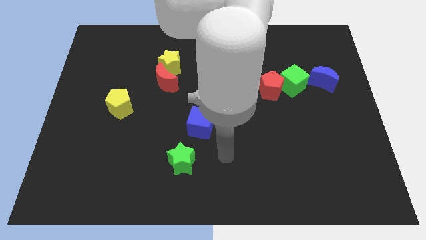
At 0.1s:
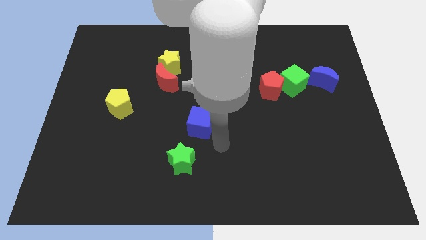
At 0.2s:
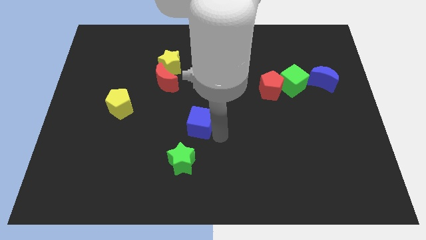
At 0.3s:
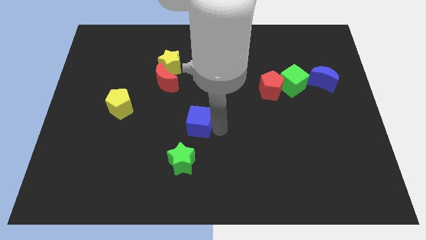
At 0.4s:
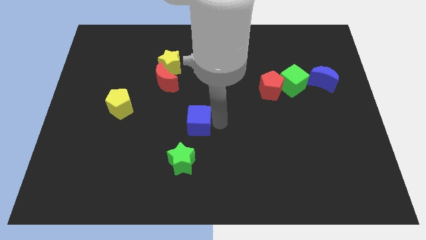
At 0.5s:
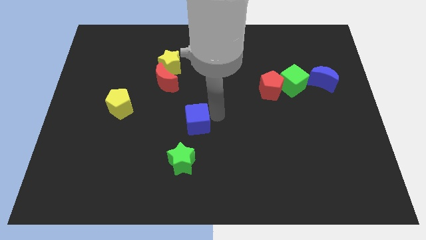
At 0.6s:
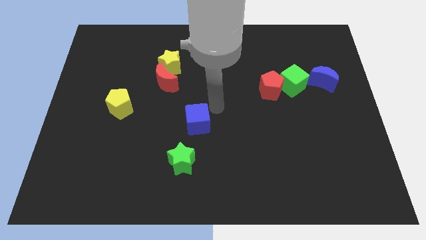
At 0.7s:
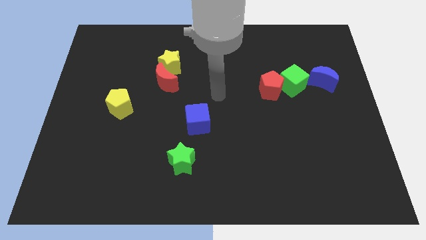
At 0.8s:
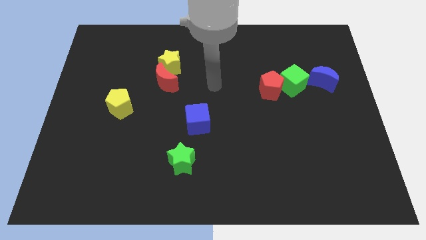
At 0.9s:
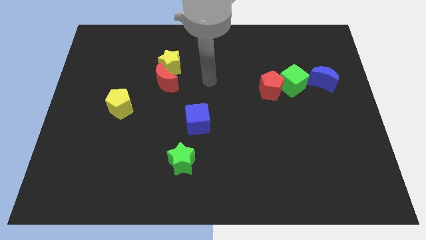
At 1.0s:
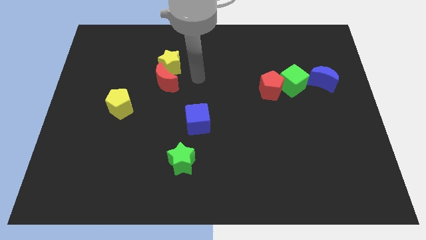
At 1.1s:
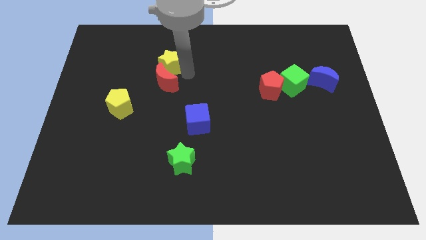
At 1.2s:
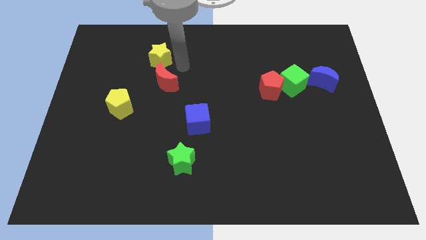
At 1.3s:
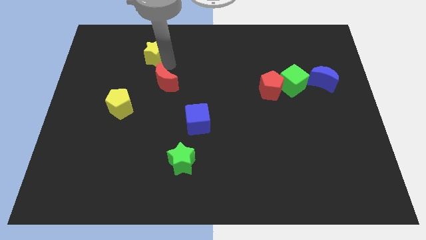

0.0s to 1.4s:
pull the red moon apart from the yellow star

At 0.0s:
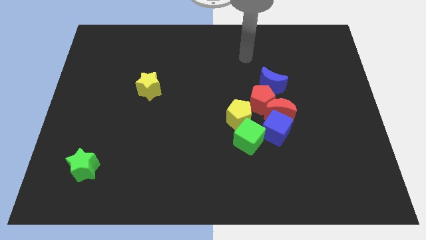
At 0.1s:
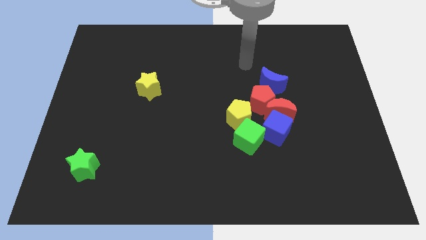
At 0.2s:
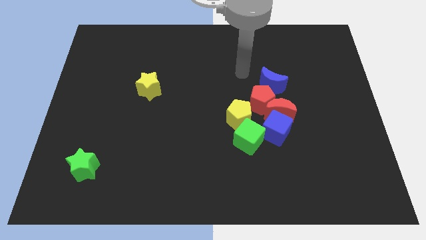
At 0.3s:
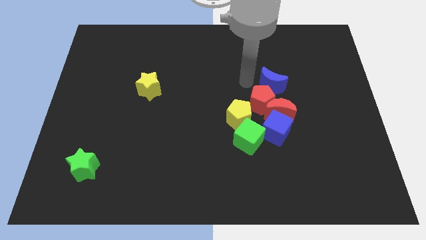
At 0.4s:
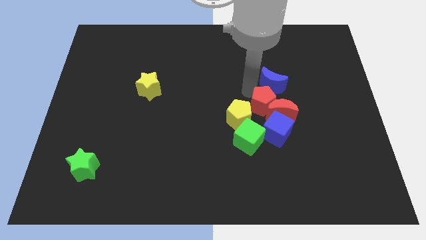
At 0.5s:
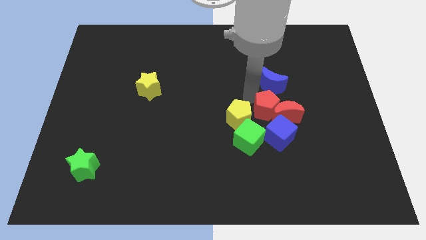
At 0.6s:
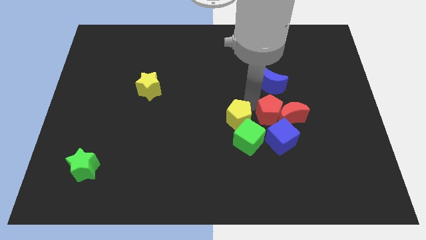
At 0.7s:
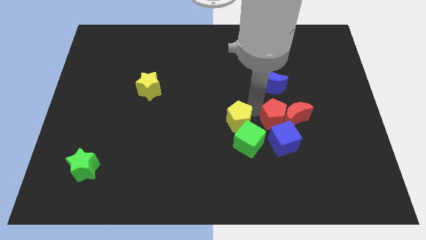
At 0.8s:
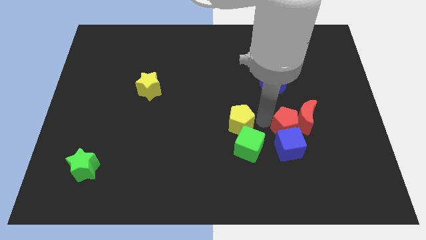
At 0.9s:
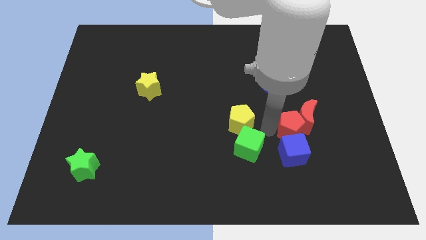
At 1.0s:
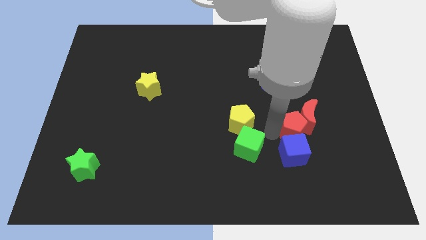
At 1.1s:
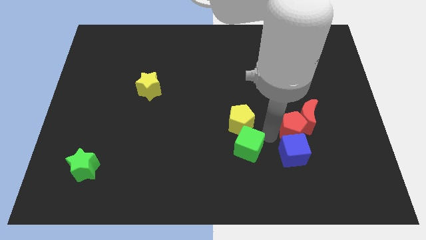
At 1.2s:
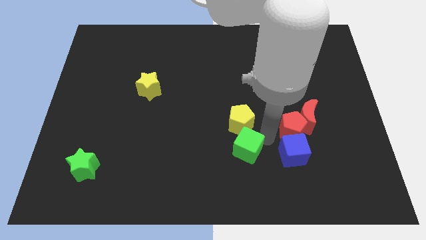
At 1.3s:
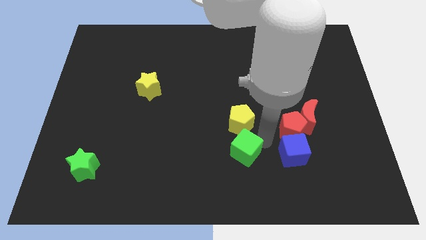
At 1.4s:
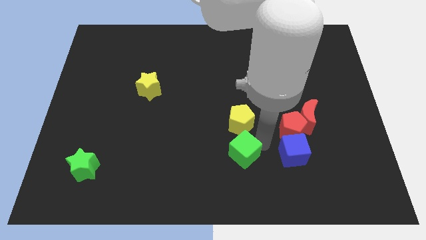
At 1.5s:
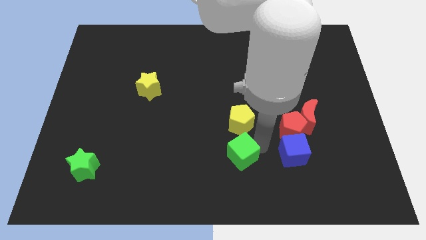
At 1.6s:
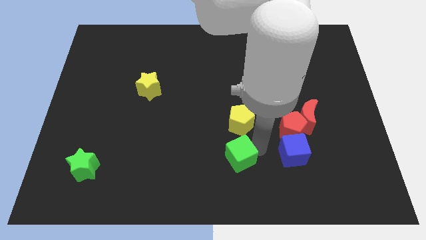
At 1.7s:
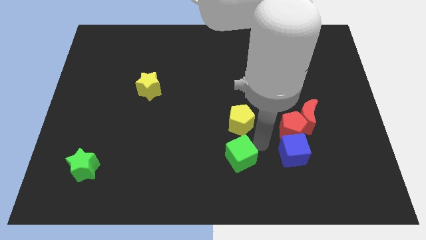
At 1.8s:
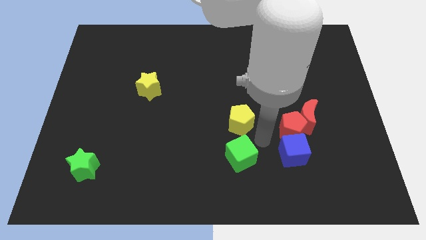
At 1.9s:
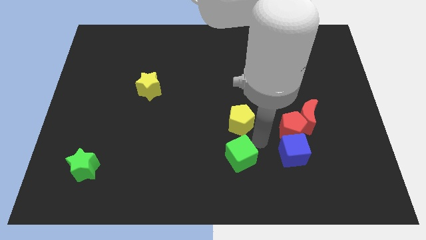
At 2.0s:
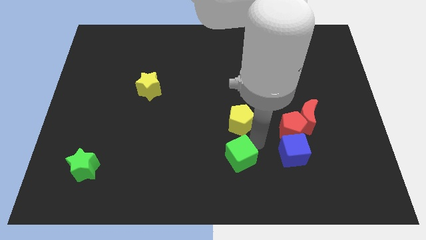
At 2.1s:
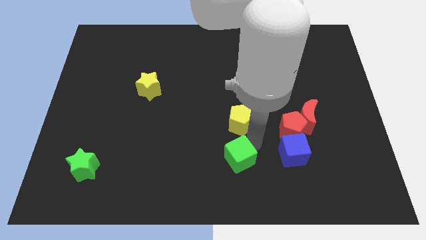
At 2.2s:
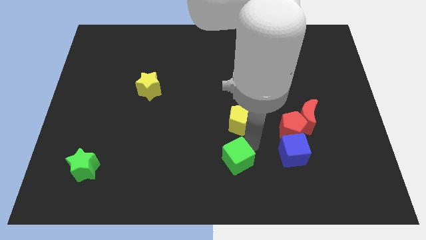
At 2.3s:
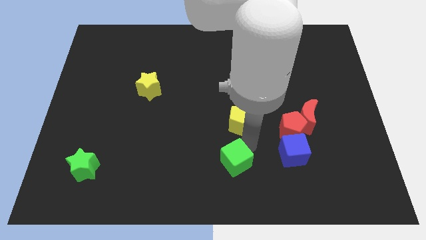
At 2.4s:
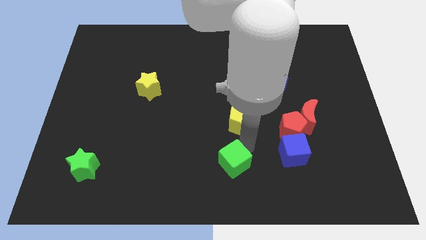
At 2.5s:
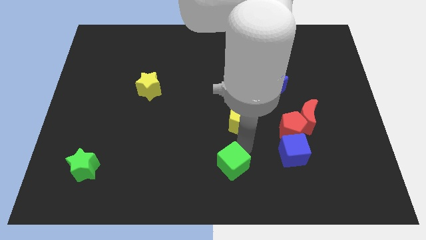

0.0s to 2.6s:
pull the green cube apart from the yellow pentagon and blue cube

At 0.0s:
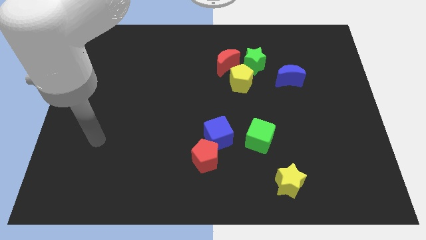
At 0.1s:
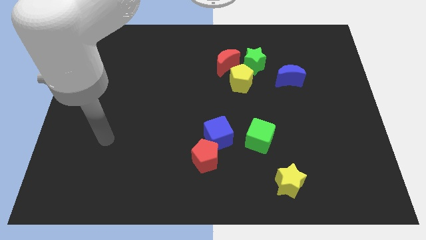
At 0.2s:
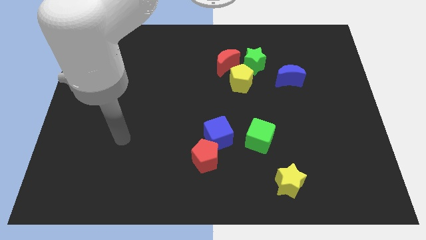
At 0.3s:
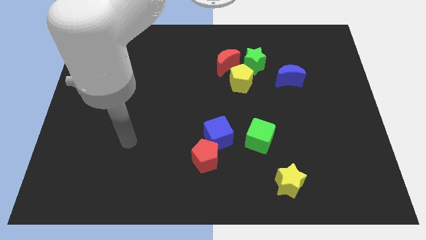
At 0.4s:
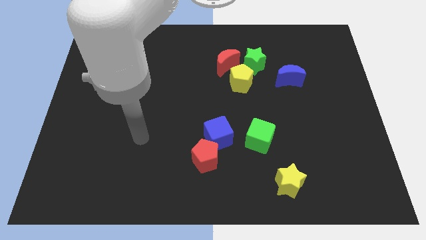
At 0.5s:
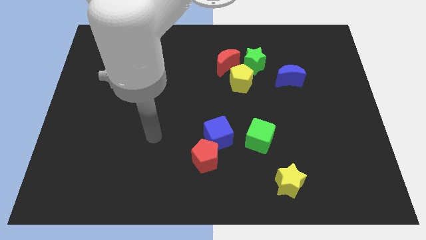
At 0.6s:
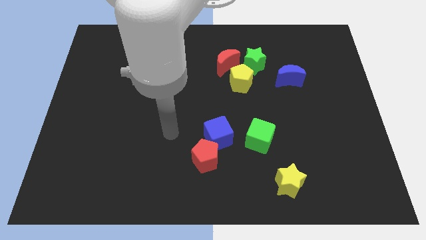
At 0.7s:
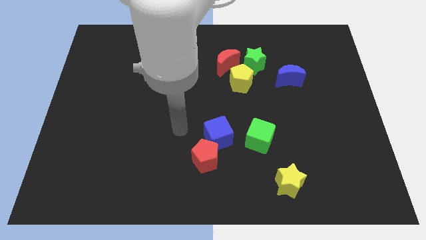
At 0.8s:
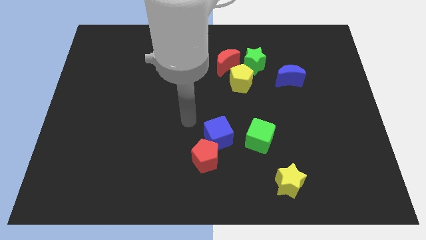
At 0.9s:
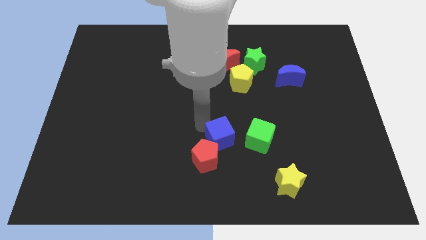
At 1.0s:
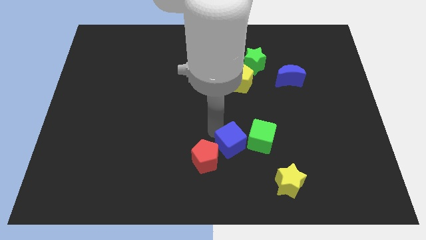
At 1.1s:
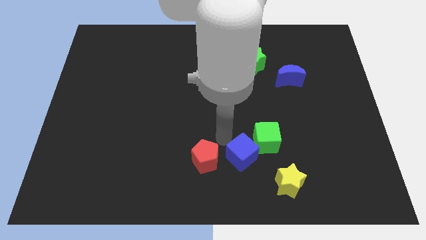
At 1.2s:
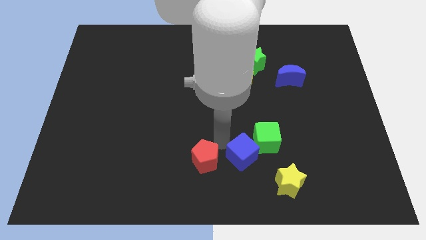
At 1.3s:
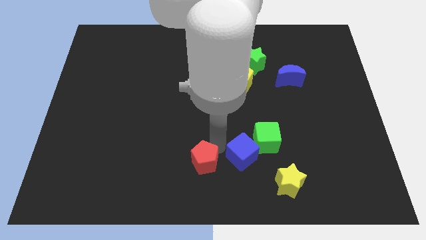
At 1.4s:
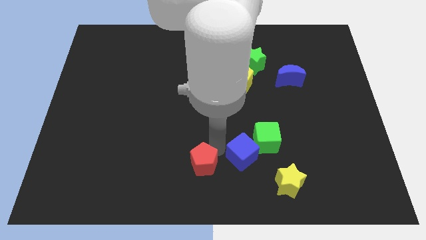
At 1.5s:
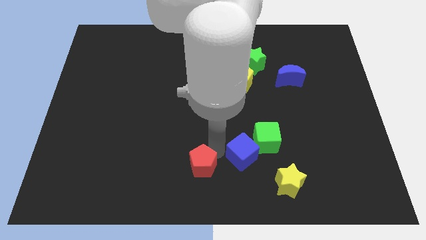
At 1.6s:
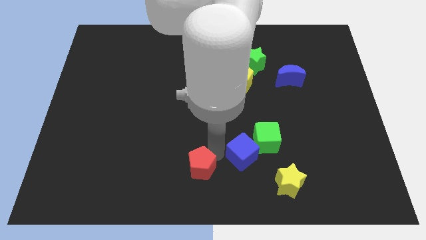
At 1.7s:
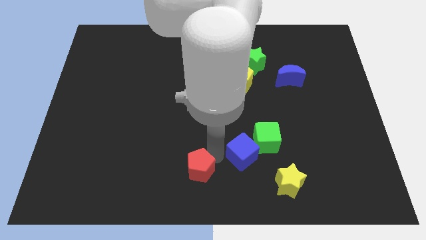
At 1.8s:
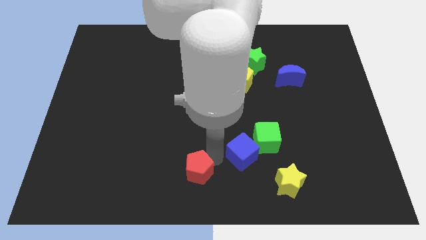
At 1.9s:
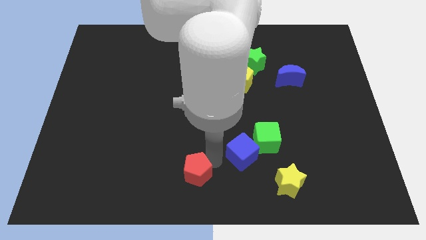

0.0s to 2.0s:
move the red pentagon away from the blue cube

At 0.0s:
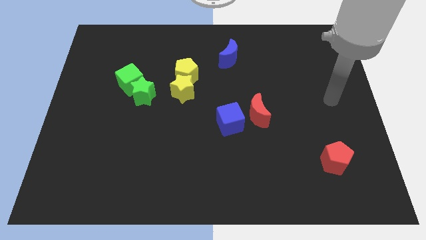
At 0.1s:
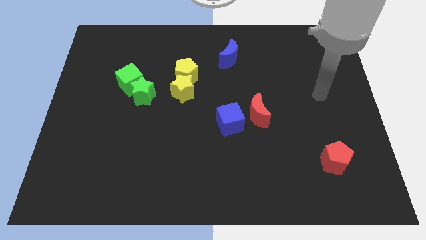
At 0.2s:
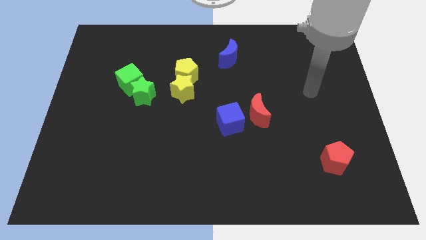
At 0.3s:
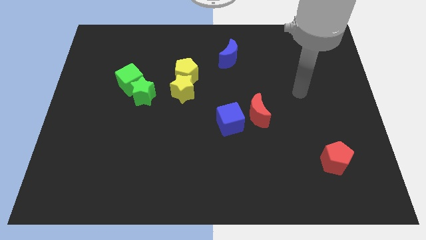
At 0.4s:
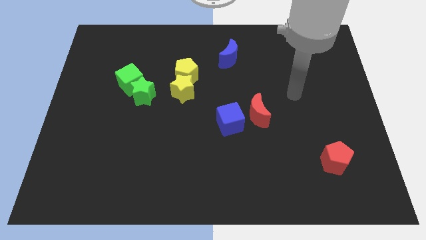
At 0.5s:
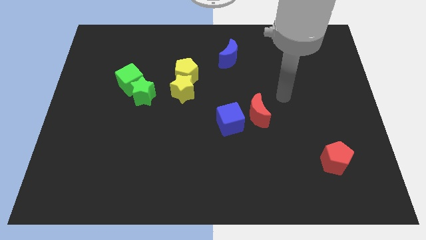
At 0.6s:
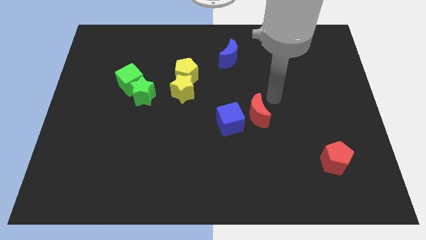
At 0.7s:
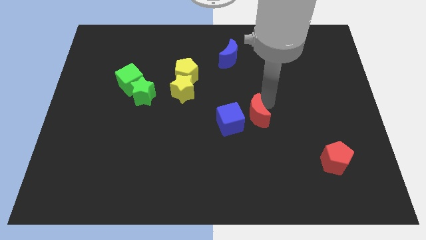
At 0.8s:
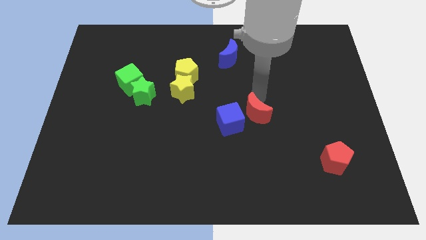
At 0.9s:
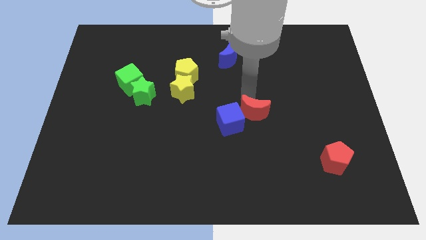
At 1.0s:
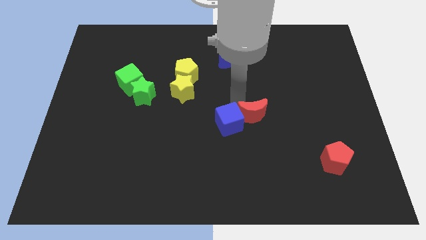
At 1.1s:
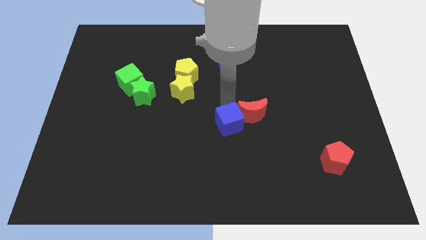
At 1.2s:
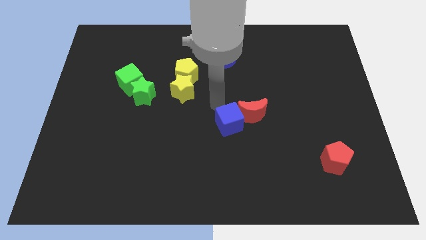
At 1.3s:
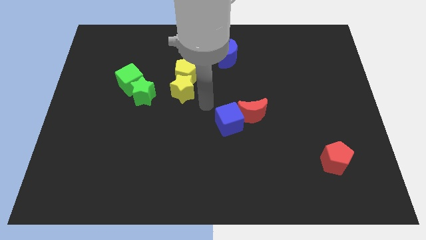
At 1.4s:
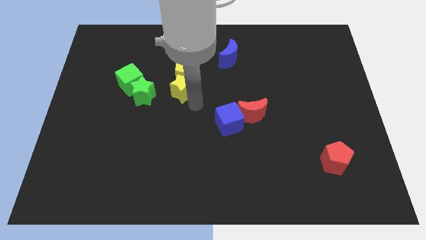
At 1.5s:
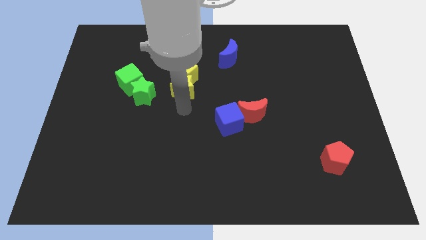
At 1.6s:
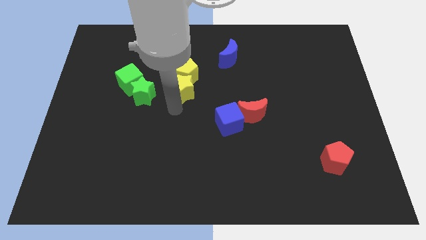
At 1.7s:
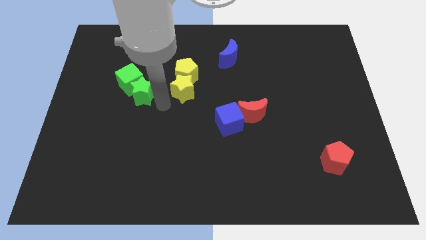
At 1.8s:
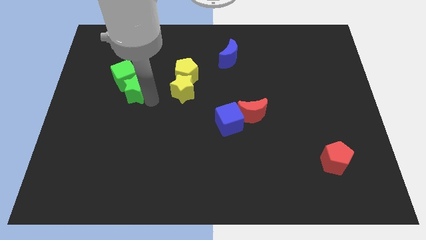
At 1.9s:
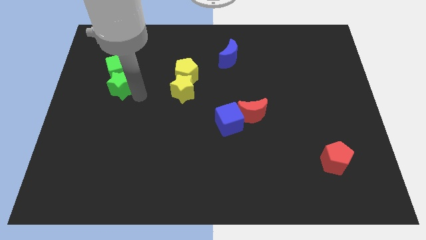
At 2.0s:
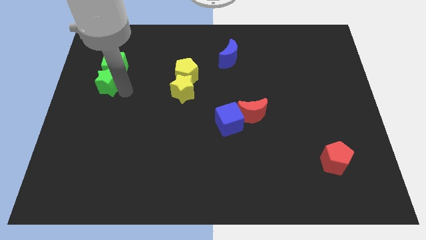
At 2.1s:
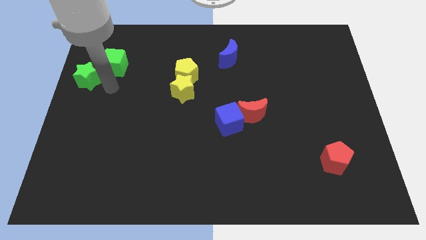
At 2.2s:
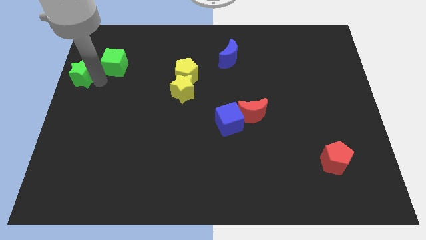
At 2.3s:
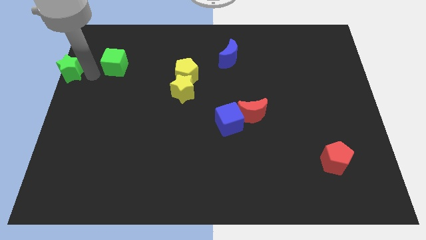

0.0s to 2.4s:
pull the green cube apart from the green star

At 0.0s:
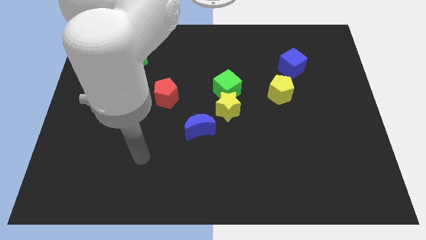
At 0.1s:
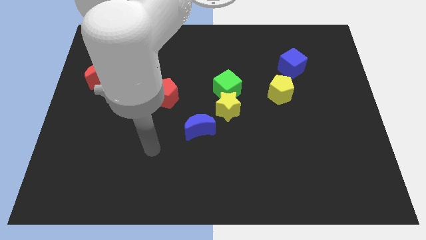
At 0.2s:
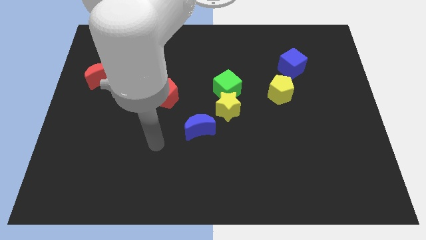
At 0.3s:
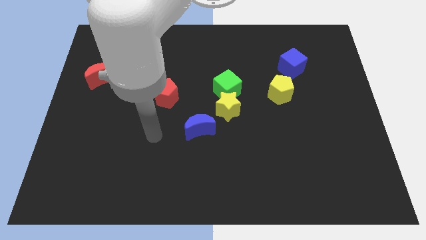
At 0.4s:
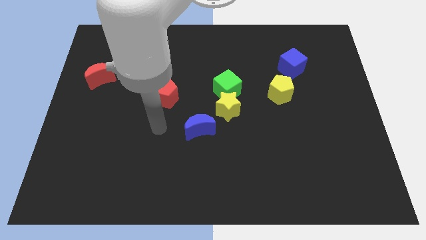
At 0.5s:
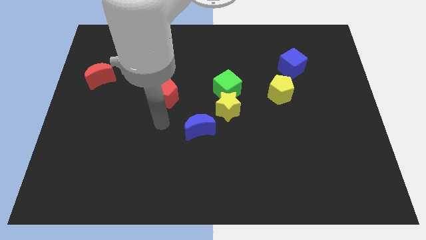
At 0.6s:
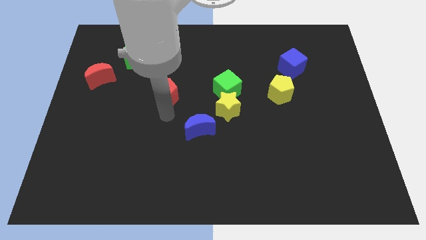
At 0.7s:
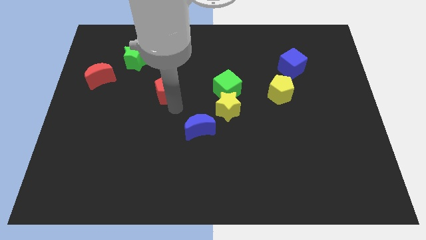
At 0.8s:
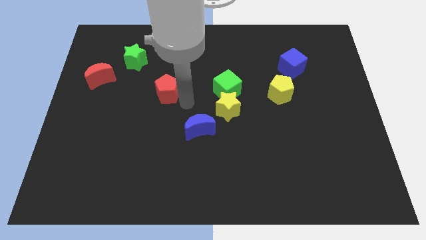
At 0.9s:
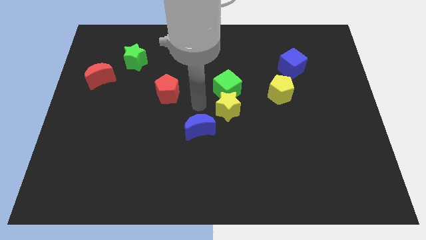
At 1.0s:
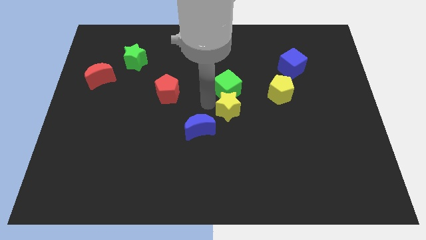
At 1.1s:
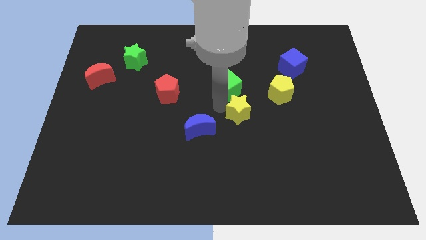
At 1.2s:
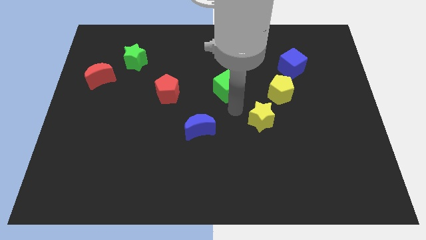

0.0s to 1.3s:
pull the green cube apart from the yellow star
